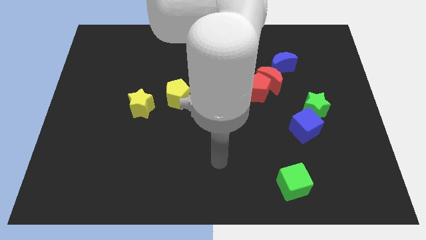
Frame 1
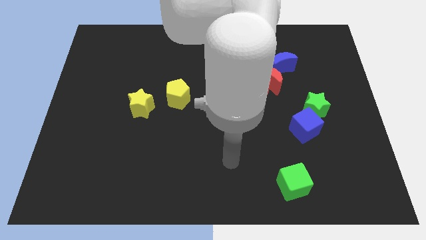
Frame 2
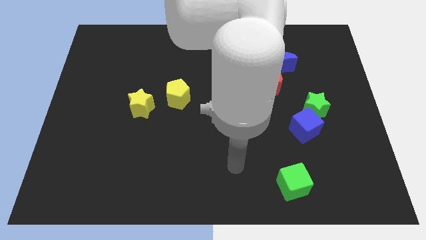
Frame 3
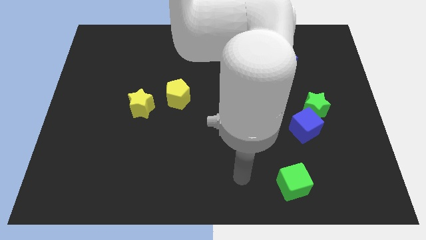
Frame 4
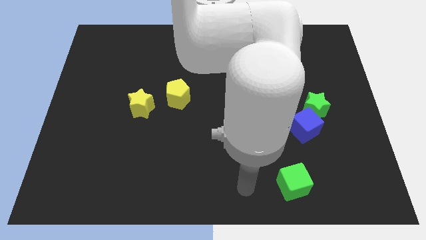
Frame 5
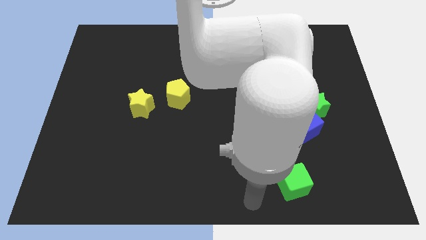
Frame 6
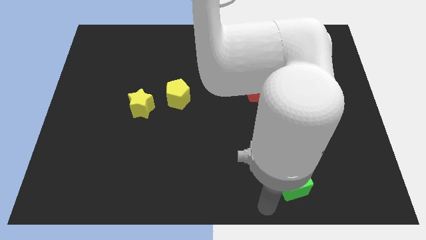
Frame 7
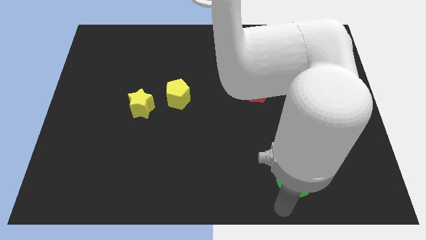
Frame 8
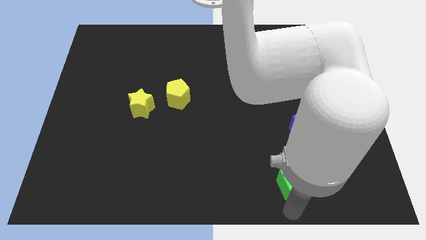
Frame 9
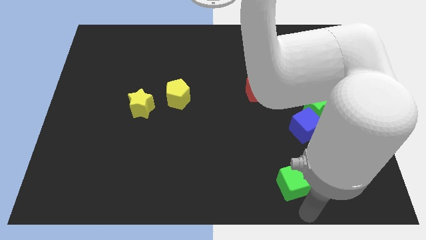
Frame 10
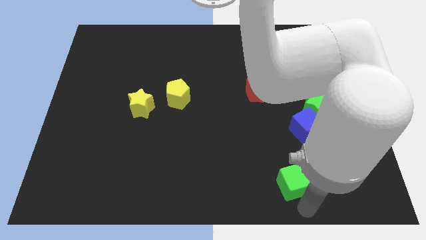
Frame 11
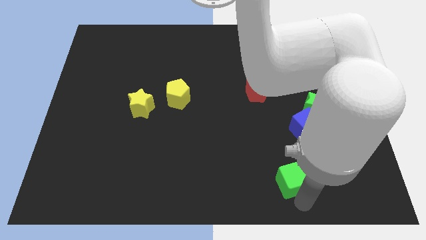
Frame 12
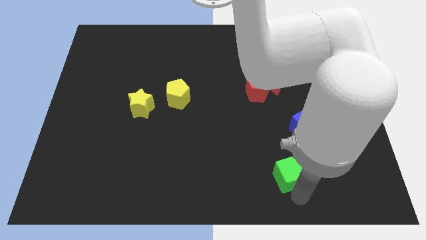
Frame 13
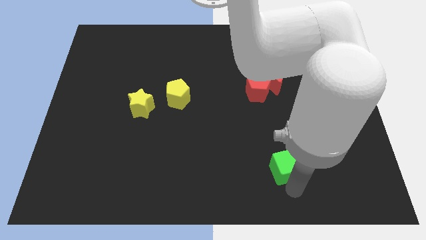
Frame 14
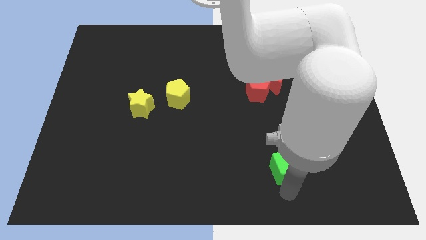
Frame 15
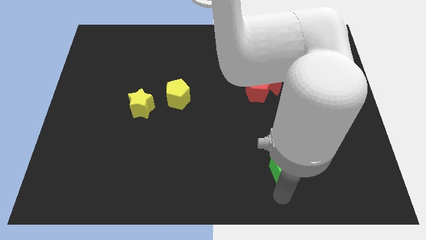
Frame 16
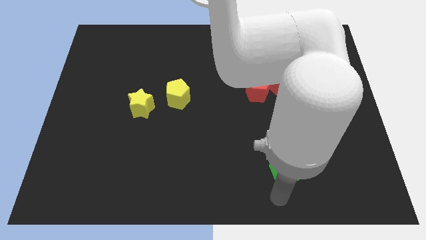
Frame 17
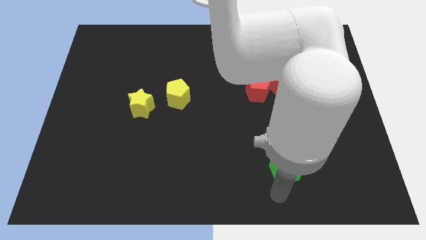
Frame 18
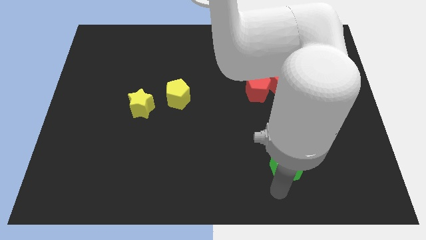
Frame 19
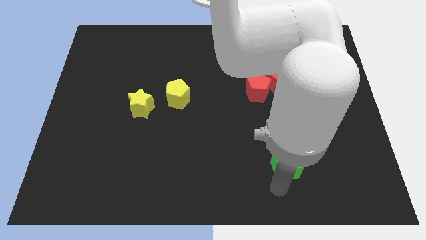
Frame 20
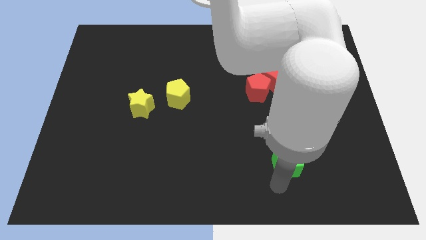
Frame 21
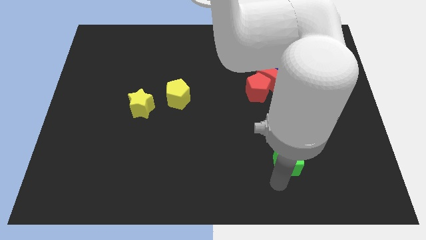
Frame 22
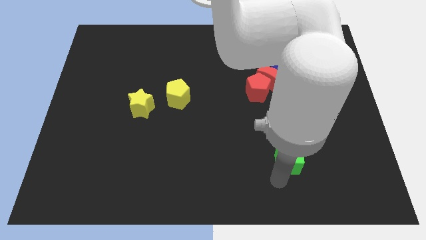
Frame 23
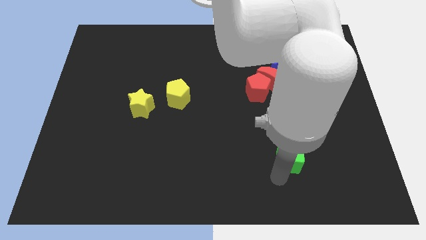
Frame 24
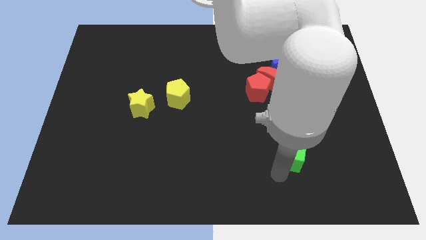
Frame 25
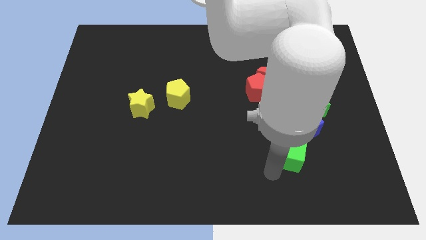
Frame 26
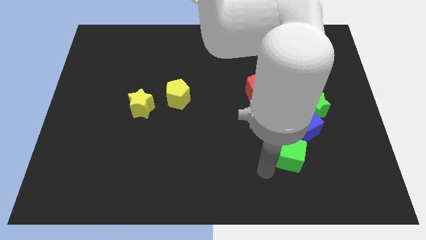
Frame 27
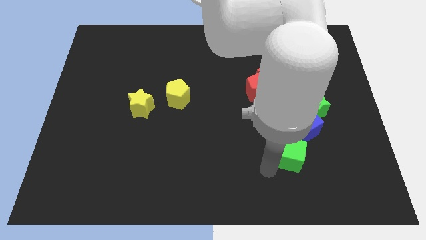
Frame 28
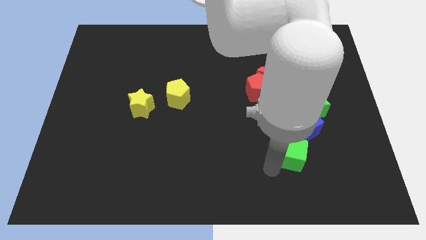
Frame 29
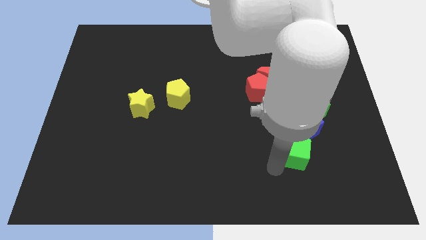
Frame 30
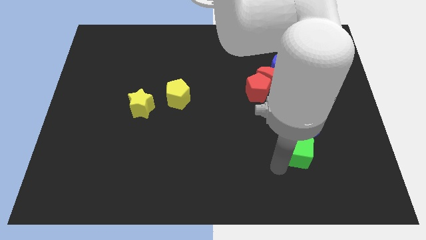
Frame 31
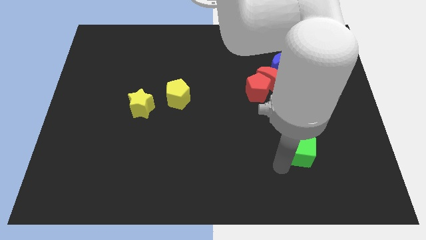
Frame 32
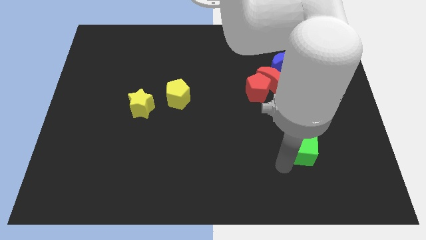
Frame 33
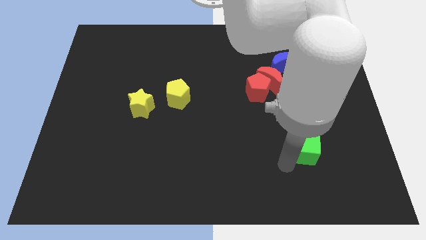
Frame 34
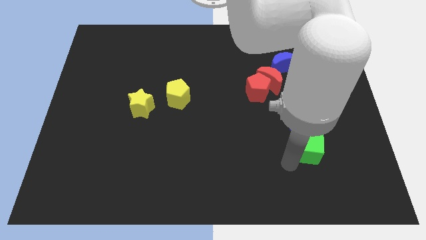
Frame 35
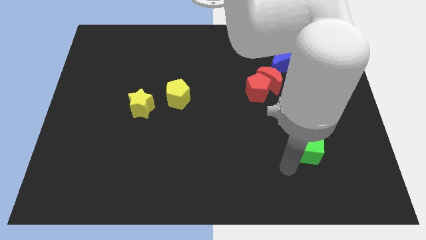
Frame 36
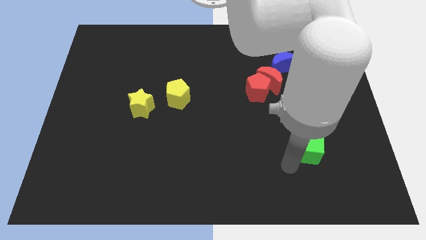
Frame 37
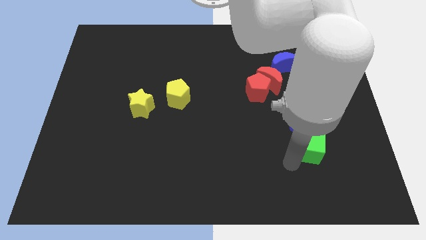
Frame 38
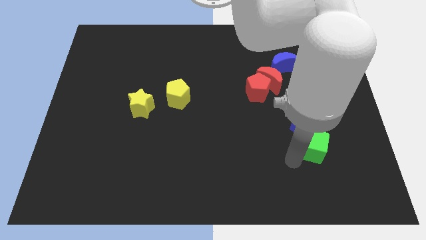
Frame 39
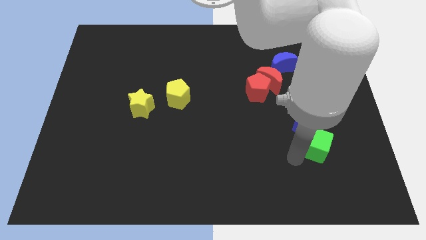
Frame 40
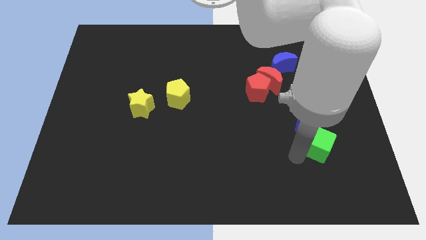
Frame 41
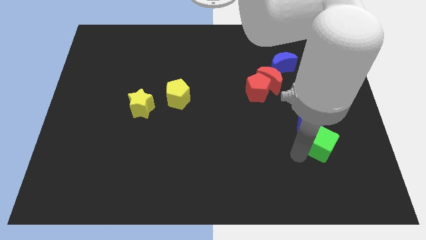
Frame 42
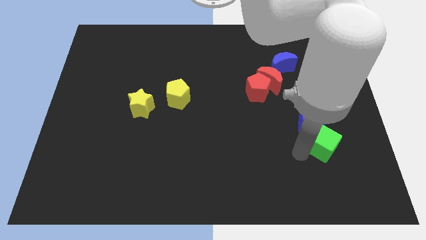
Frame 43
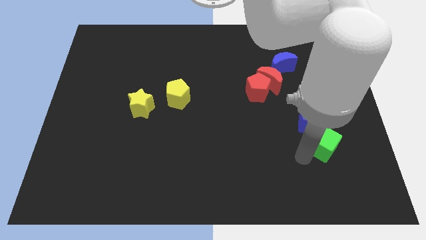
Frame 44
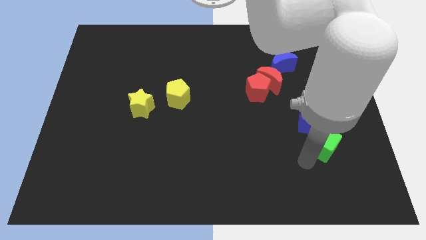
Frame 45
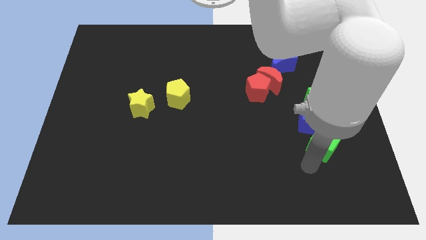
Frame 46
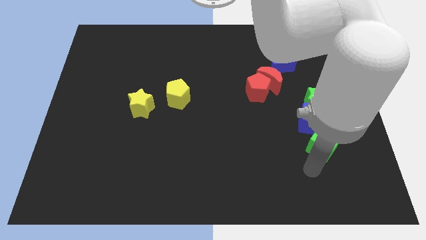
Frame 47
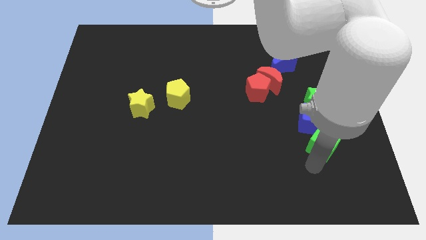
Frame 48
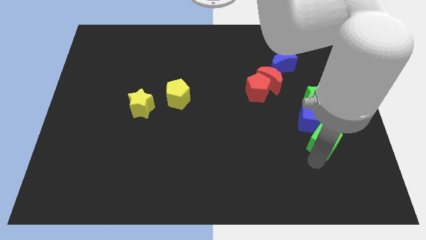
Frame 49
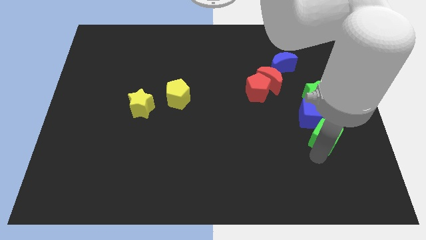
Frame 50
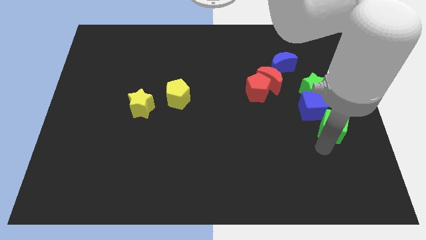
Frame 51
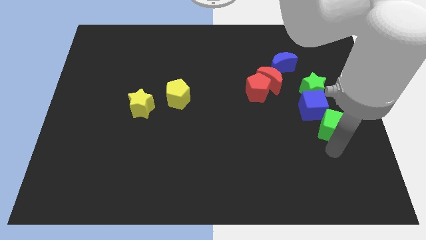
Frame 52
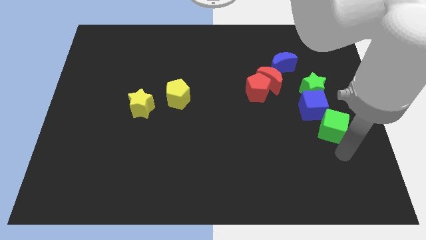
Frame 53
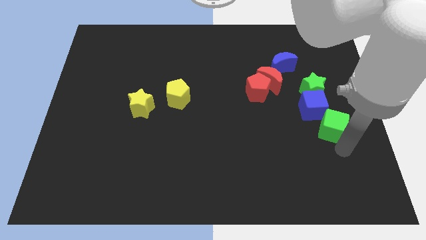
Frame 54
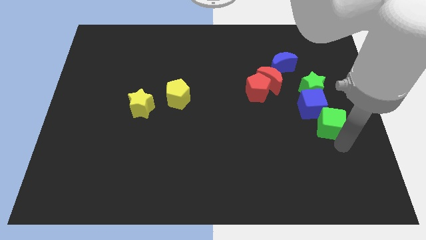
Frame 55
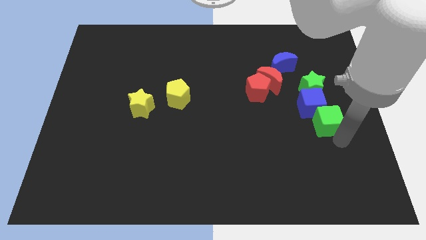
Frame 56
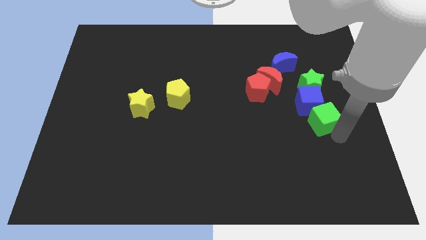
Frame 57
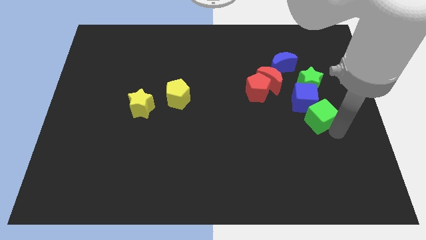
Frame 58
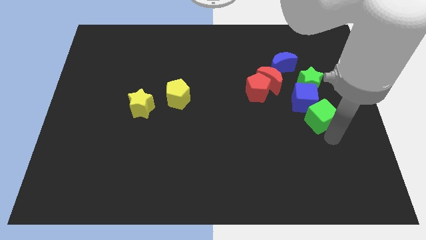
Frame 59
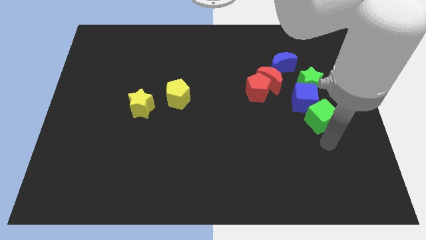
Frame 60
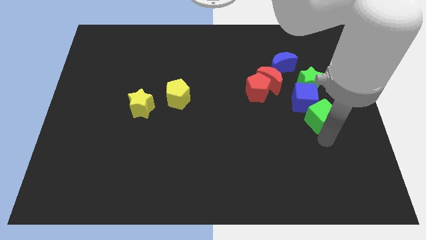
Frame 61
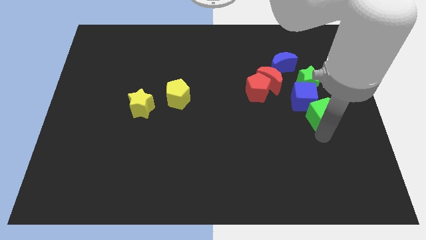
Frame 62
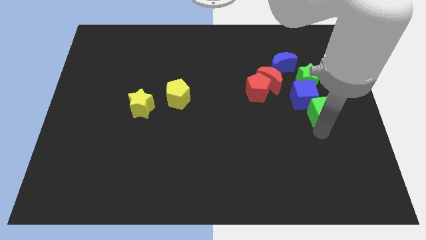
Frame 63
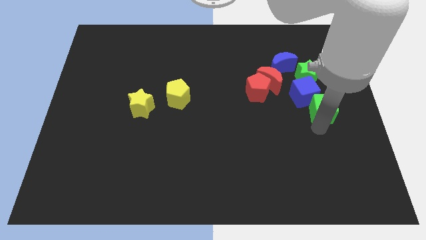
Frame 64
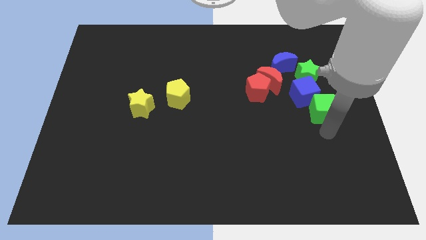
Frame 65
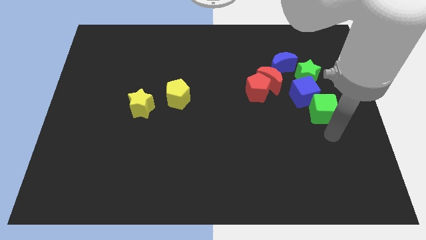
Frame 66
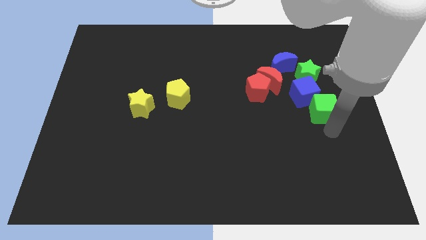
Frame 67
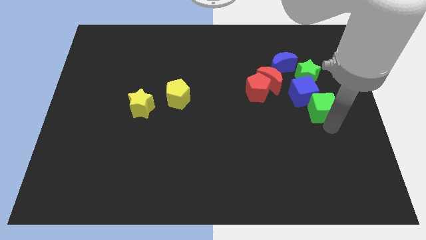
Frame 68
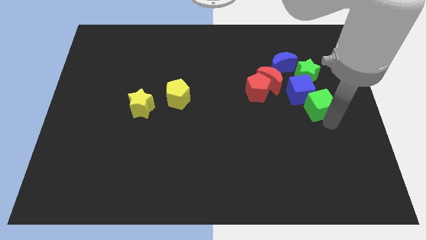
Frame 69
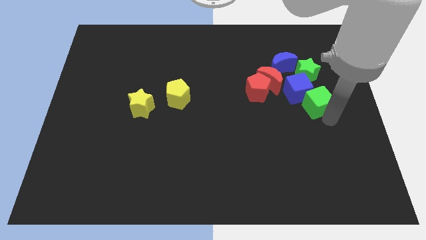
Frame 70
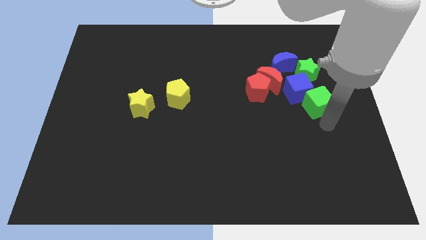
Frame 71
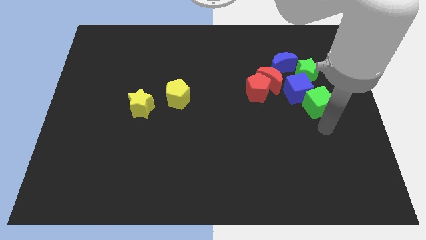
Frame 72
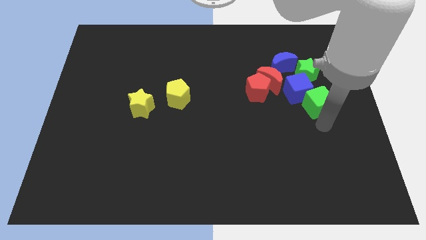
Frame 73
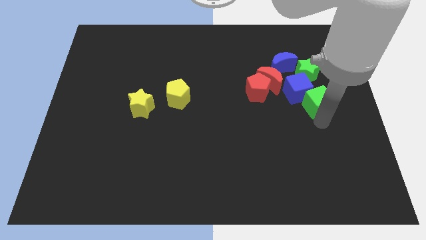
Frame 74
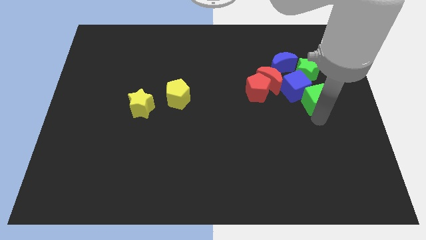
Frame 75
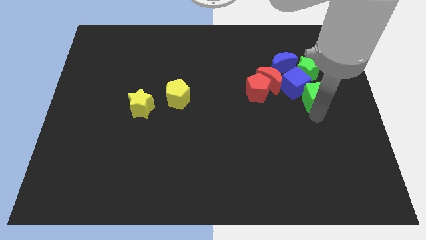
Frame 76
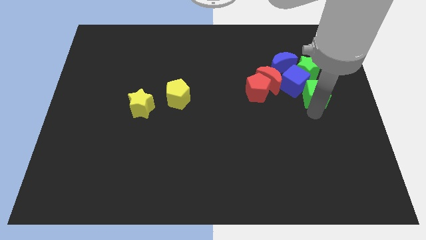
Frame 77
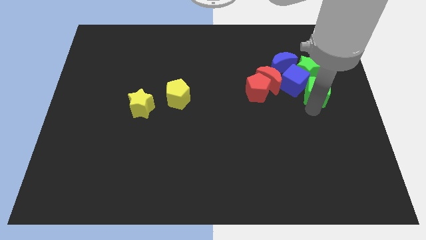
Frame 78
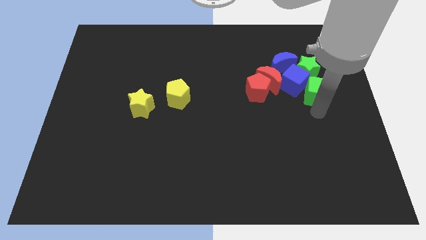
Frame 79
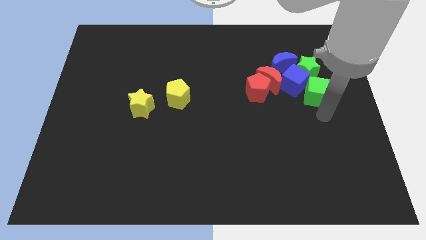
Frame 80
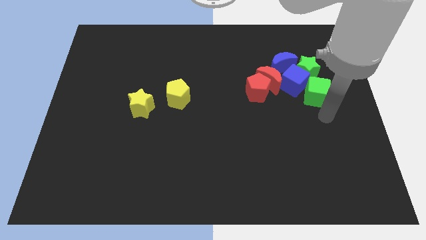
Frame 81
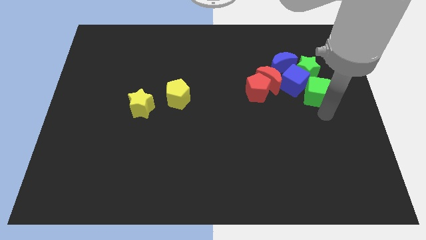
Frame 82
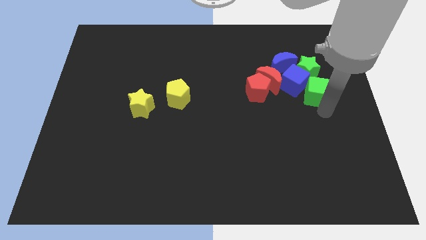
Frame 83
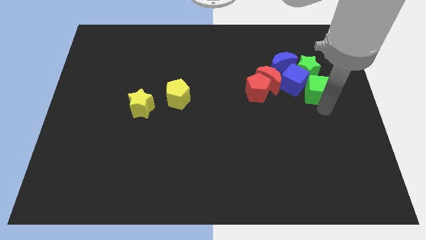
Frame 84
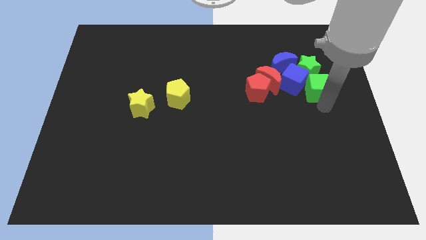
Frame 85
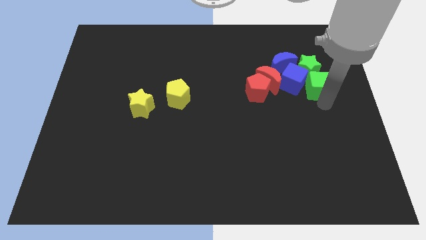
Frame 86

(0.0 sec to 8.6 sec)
push the green cube towards the green star
